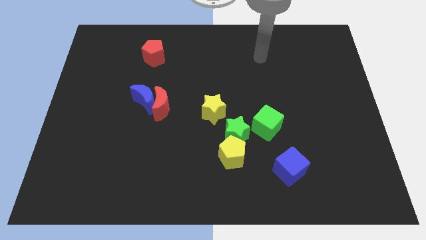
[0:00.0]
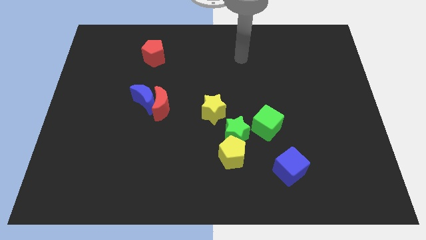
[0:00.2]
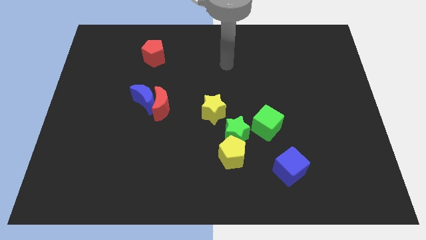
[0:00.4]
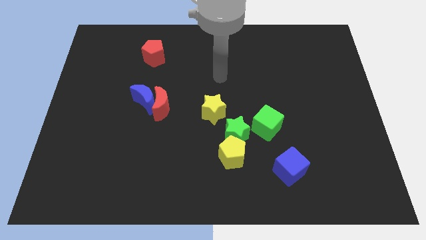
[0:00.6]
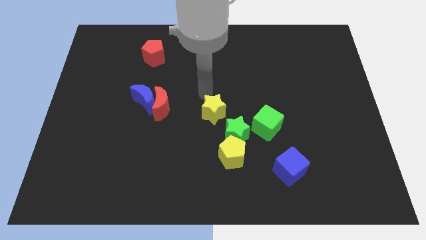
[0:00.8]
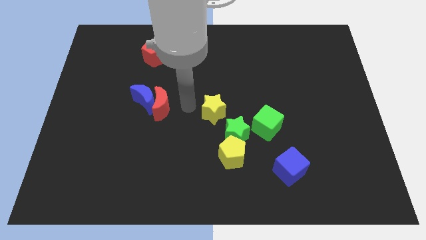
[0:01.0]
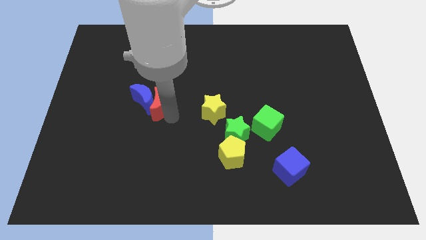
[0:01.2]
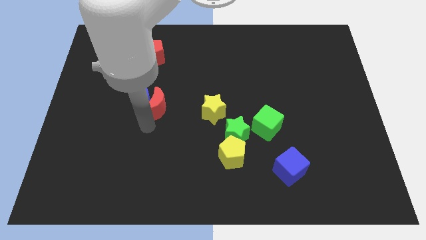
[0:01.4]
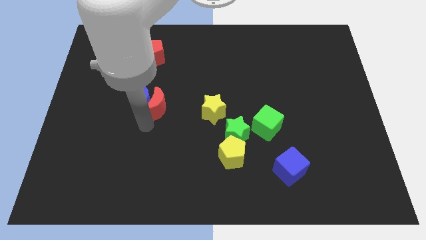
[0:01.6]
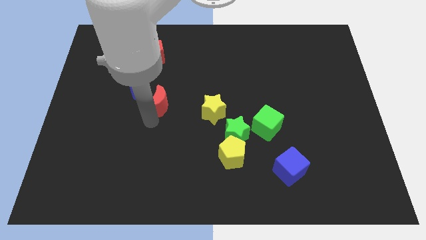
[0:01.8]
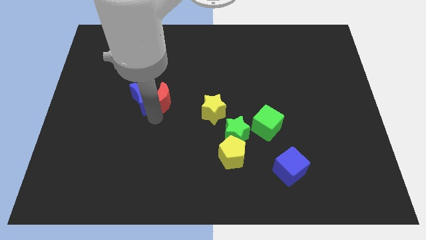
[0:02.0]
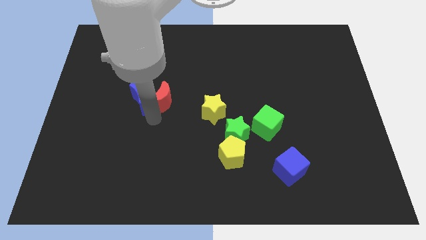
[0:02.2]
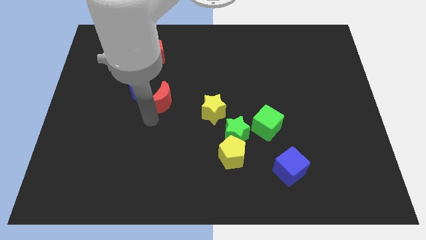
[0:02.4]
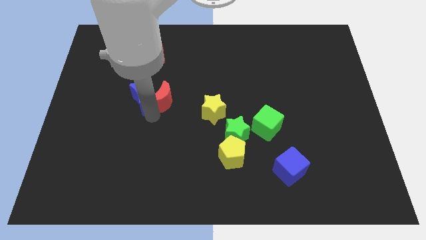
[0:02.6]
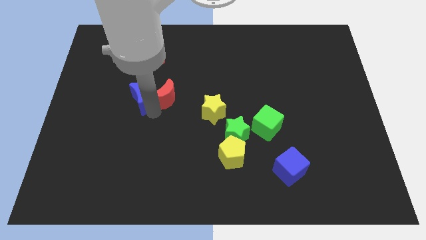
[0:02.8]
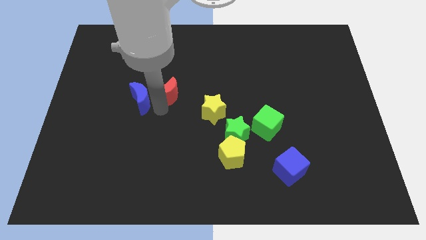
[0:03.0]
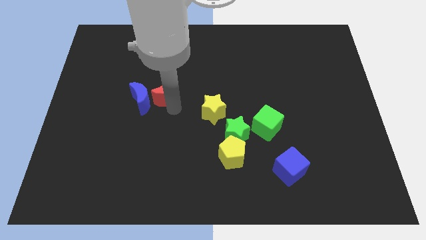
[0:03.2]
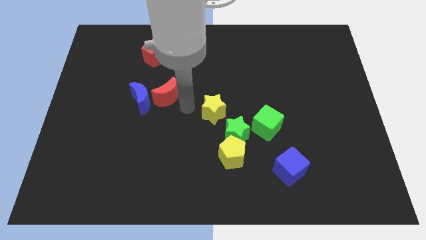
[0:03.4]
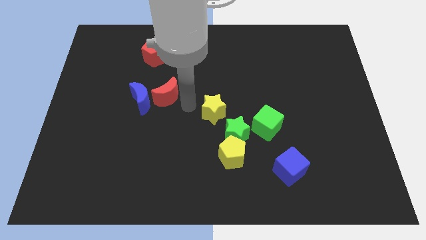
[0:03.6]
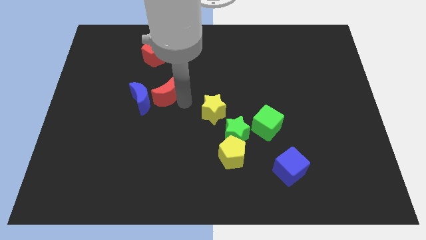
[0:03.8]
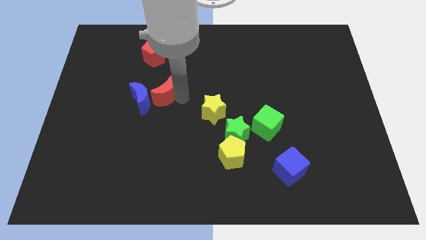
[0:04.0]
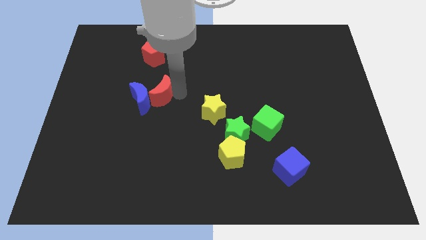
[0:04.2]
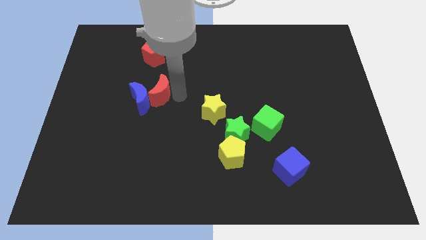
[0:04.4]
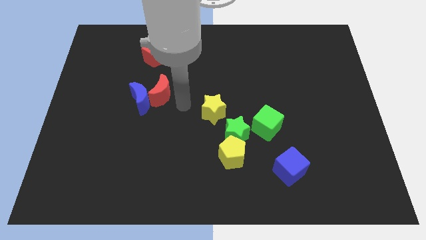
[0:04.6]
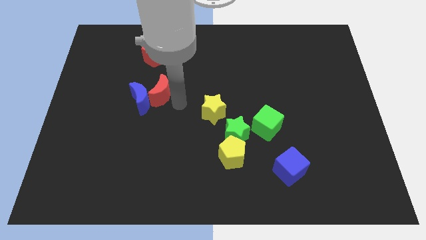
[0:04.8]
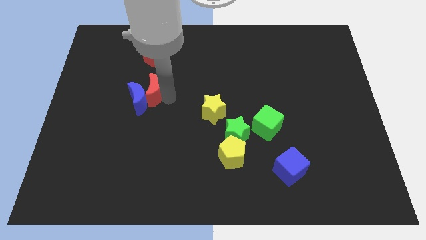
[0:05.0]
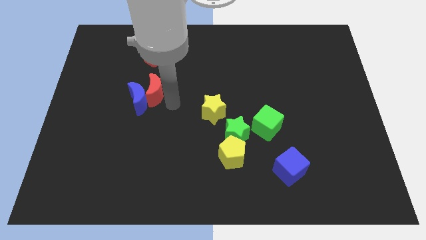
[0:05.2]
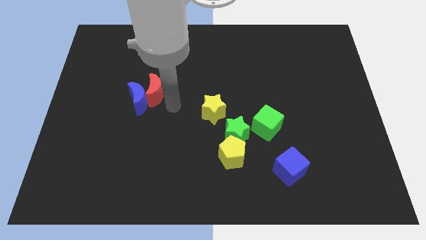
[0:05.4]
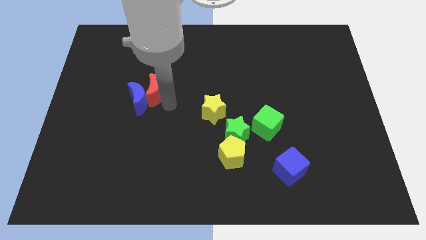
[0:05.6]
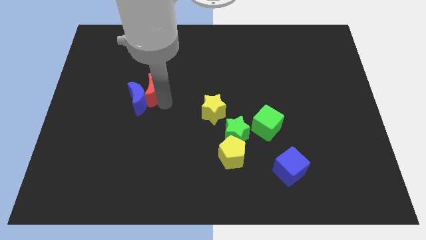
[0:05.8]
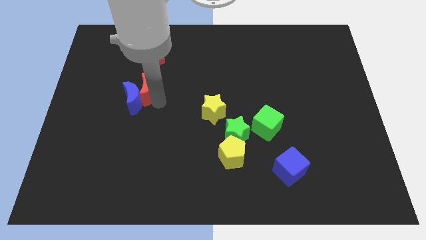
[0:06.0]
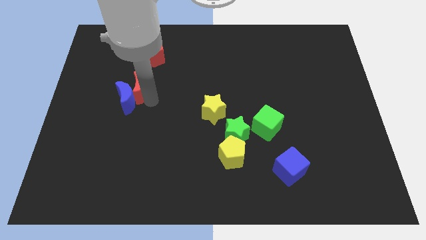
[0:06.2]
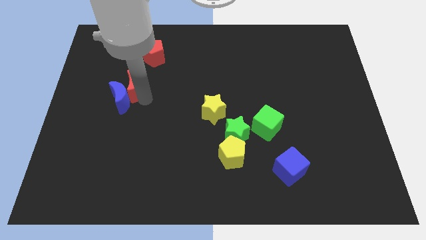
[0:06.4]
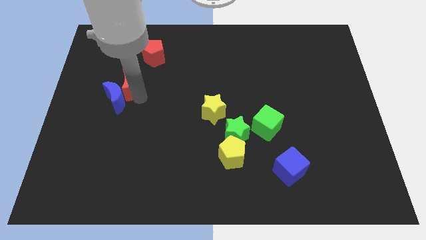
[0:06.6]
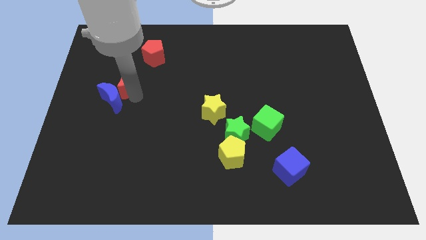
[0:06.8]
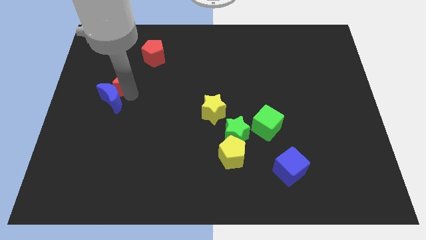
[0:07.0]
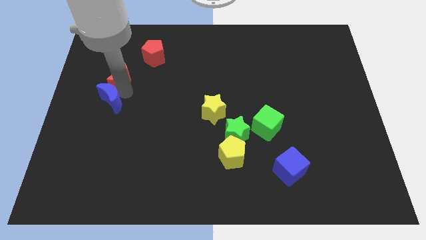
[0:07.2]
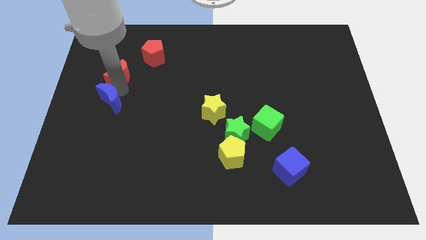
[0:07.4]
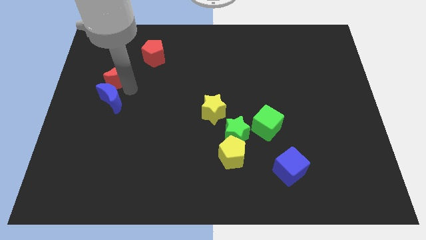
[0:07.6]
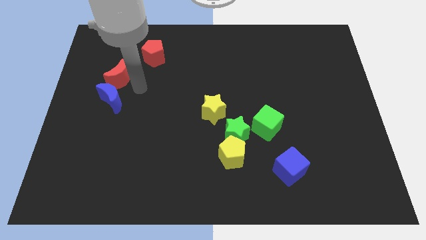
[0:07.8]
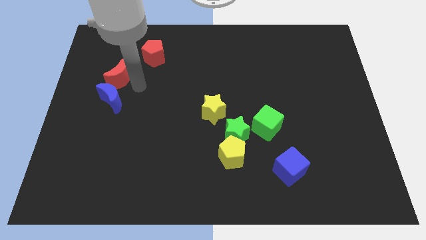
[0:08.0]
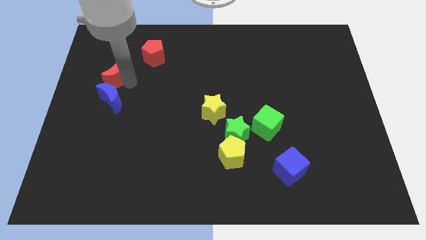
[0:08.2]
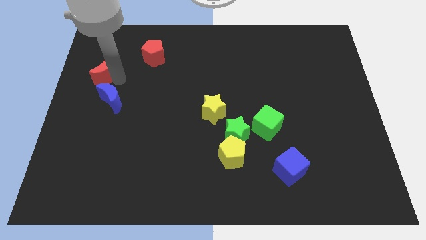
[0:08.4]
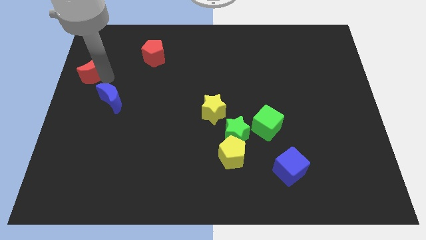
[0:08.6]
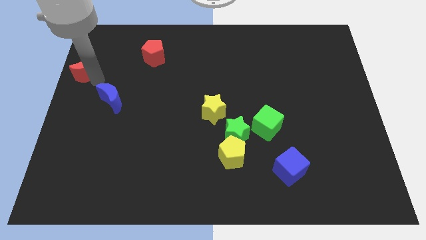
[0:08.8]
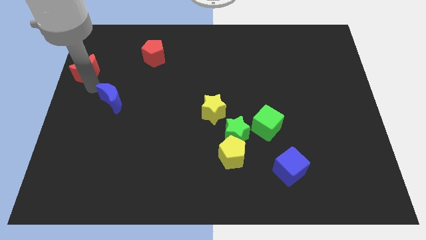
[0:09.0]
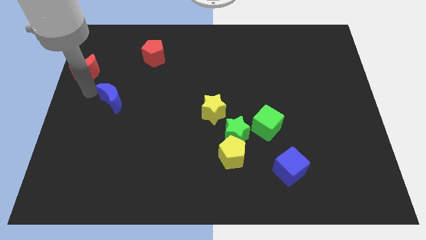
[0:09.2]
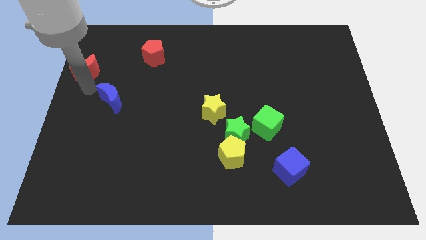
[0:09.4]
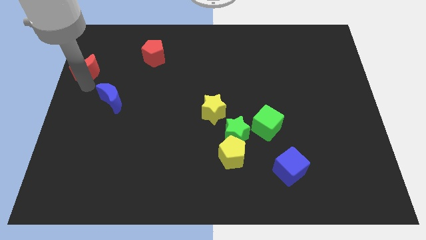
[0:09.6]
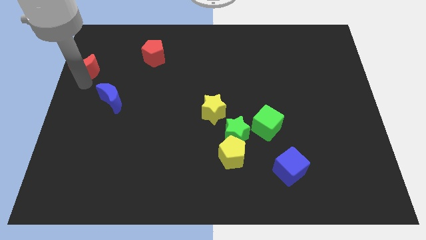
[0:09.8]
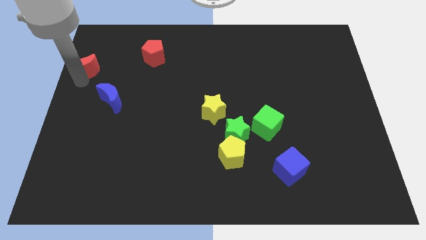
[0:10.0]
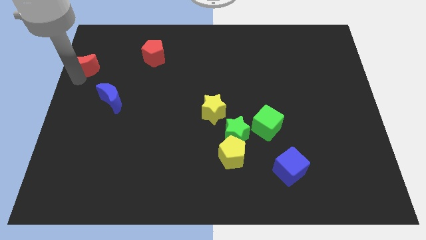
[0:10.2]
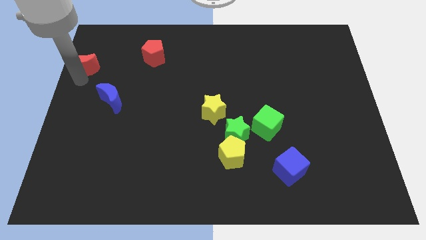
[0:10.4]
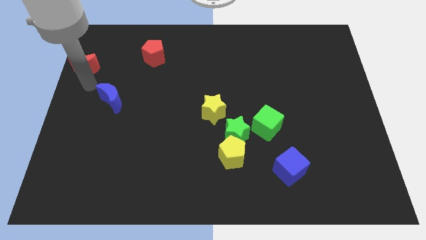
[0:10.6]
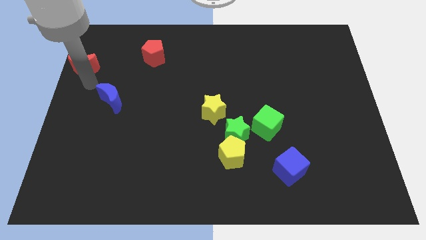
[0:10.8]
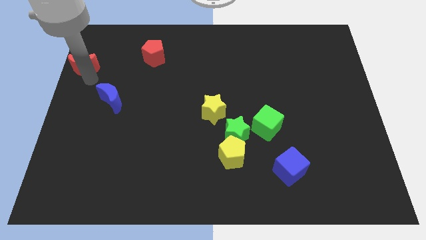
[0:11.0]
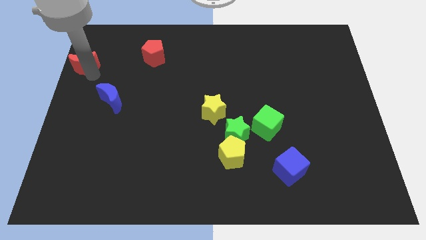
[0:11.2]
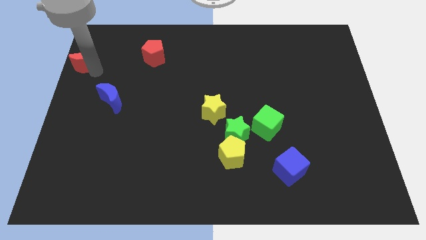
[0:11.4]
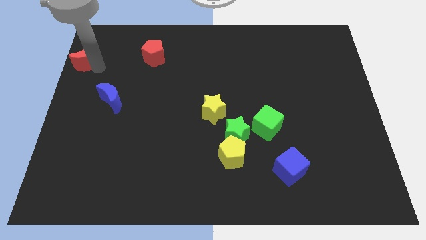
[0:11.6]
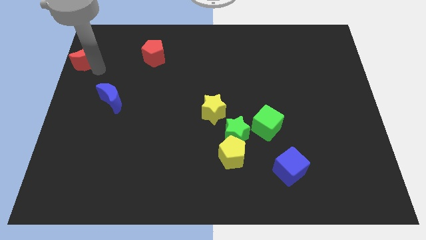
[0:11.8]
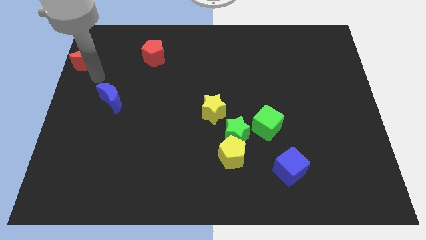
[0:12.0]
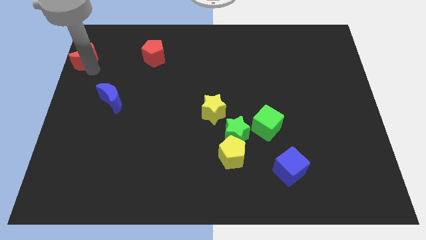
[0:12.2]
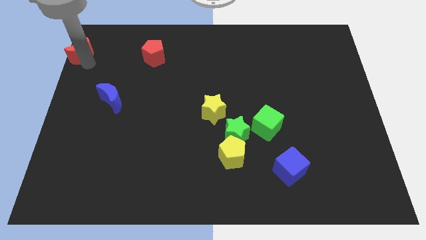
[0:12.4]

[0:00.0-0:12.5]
put the red moon to the upper left corner
